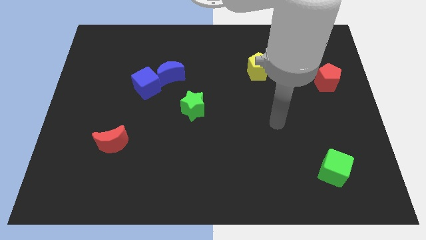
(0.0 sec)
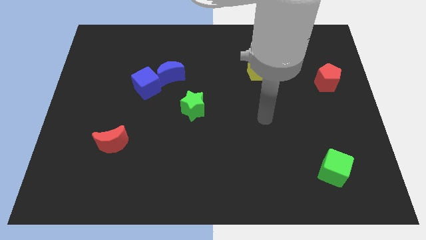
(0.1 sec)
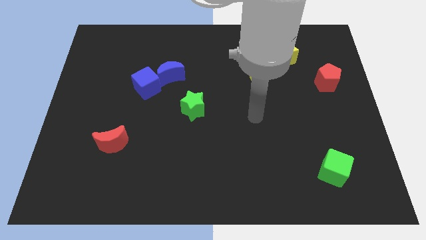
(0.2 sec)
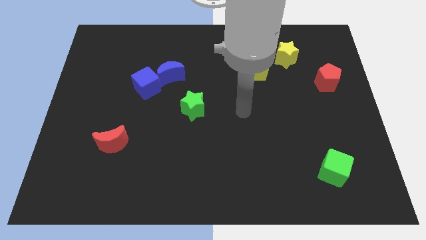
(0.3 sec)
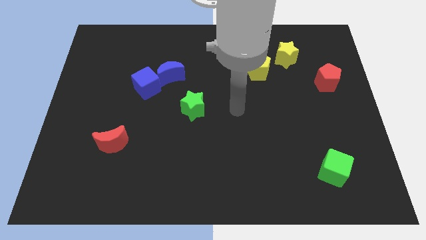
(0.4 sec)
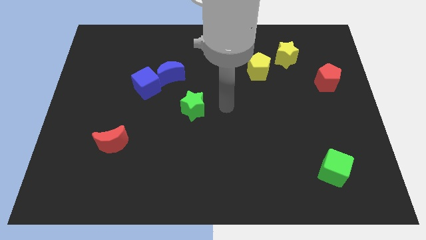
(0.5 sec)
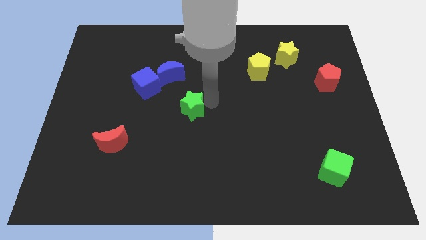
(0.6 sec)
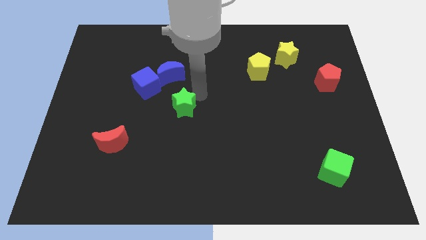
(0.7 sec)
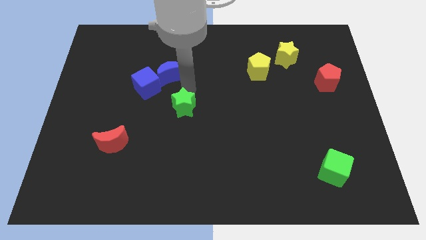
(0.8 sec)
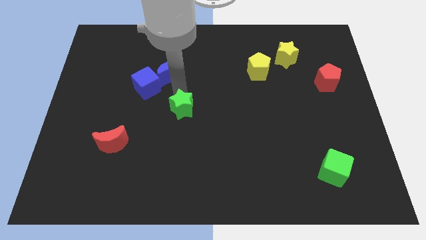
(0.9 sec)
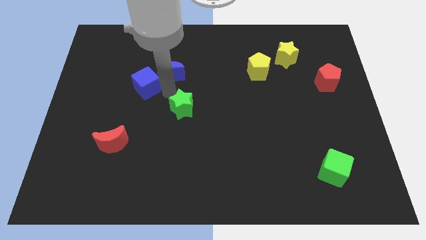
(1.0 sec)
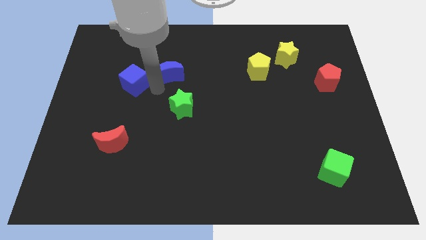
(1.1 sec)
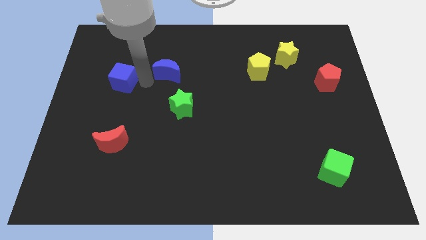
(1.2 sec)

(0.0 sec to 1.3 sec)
pull the blue moon apart from the blue cube

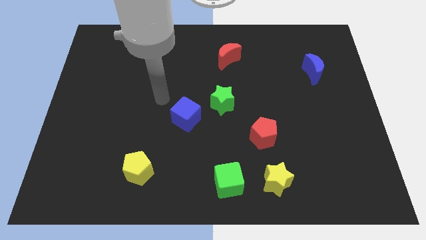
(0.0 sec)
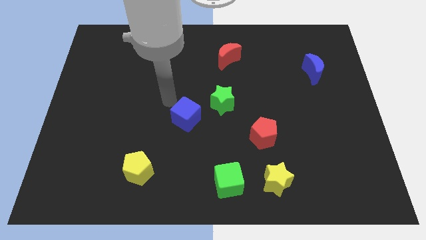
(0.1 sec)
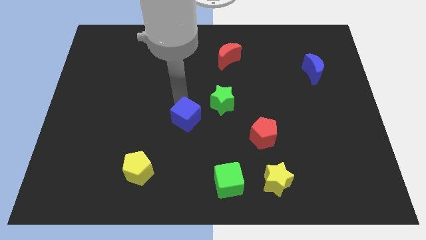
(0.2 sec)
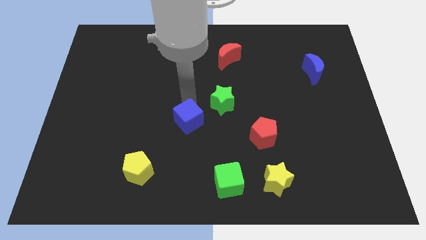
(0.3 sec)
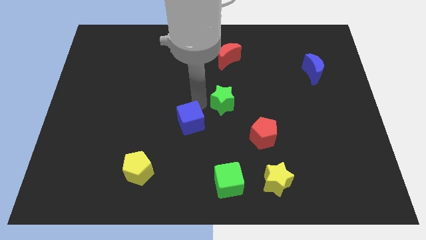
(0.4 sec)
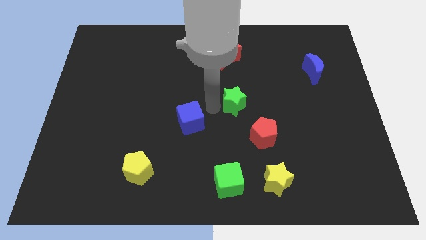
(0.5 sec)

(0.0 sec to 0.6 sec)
move the blue cube away from the green star

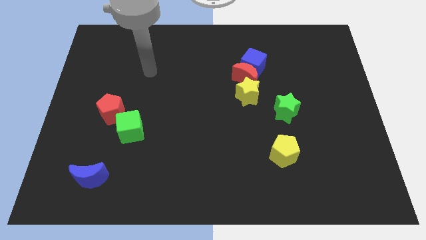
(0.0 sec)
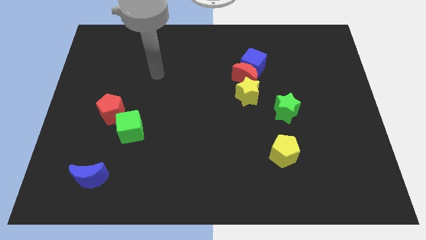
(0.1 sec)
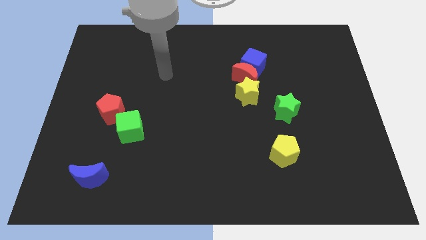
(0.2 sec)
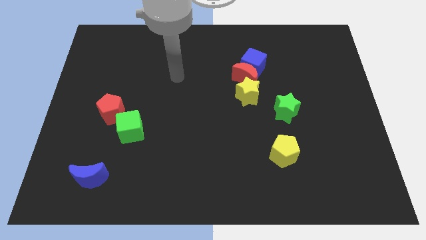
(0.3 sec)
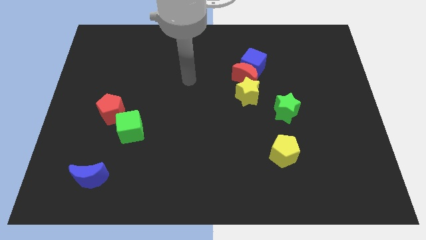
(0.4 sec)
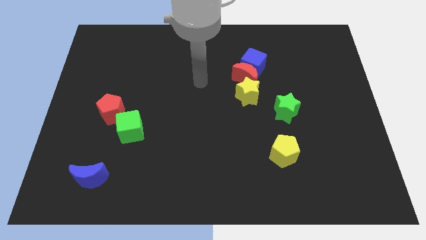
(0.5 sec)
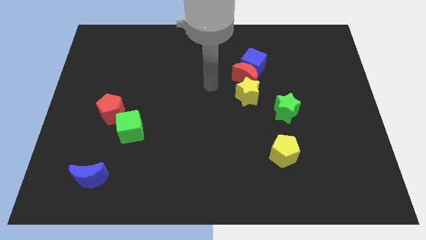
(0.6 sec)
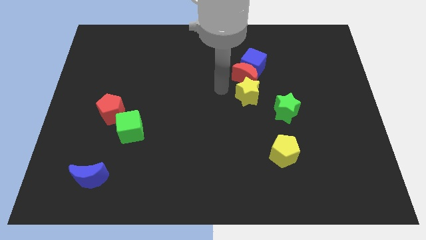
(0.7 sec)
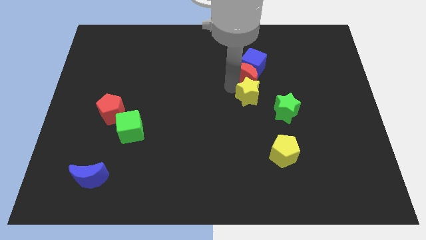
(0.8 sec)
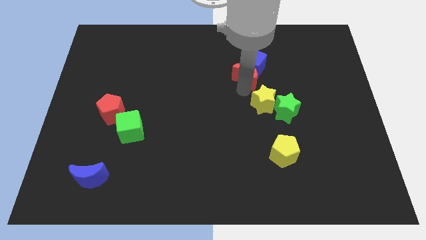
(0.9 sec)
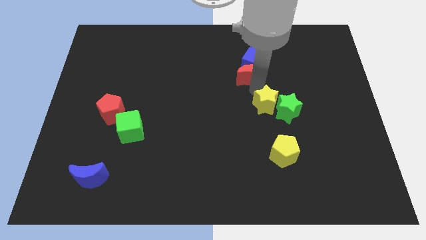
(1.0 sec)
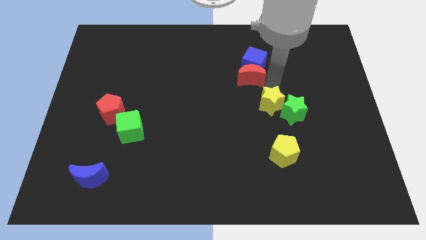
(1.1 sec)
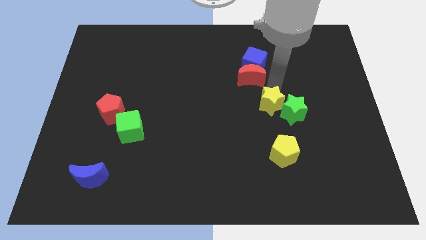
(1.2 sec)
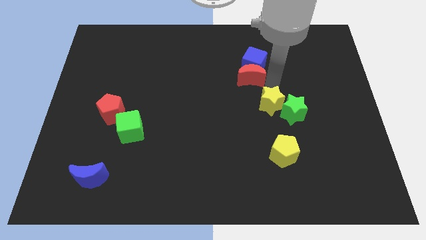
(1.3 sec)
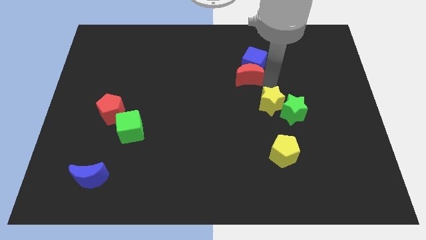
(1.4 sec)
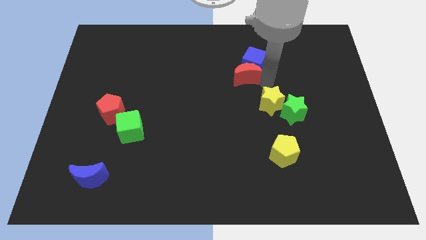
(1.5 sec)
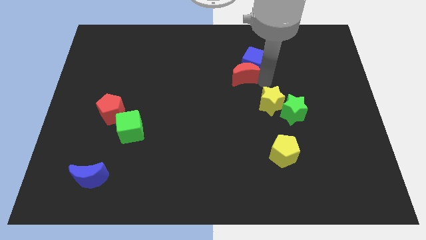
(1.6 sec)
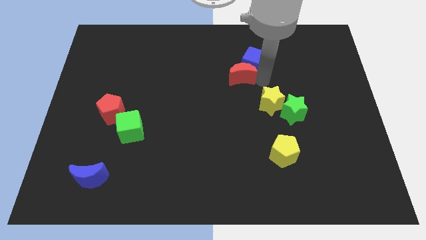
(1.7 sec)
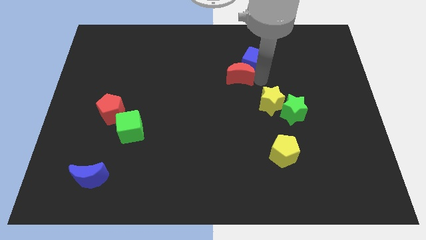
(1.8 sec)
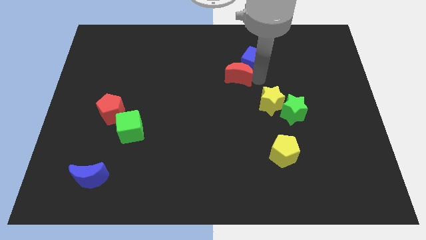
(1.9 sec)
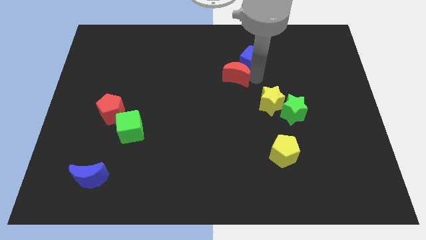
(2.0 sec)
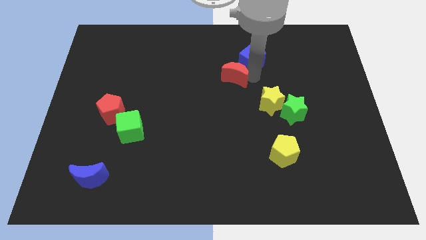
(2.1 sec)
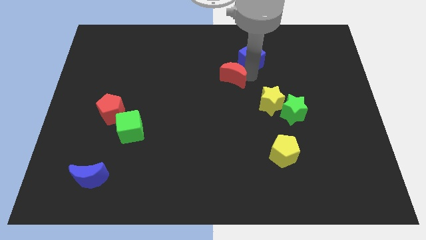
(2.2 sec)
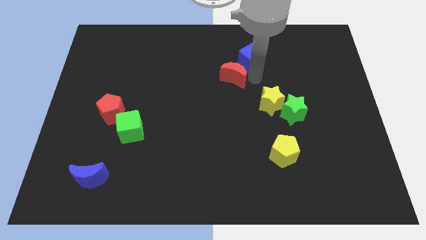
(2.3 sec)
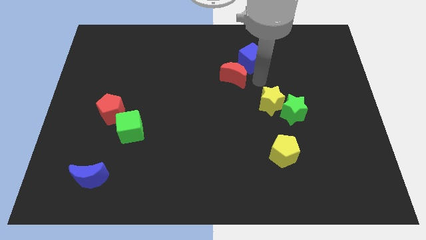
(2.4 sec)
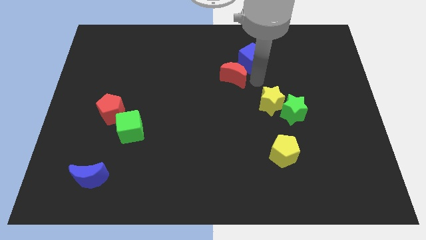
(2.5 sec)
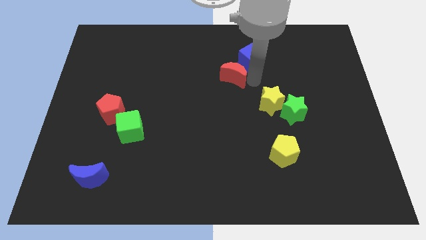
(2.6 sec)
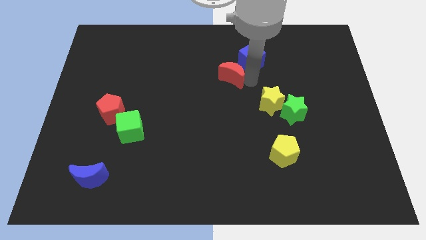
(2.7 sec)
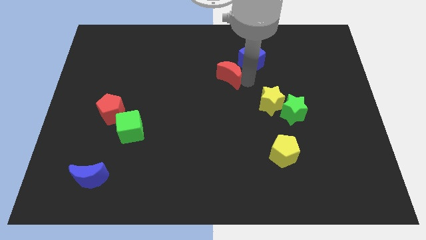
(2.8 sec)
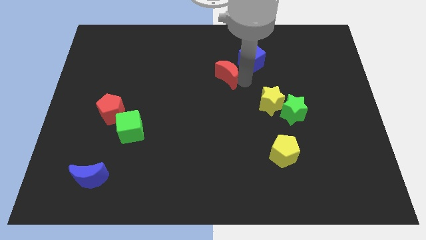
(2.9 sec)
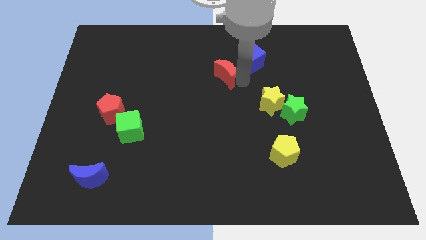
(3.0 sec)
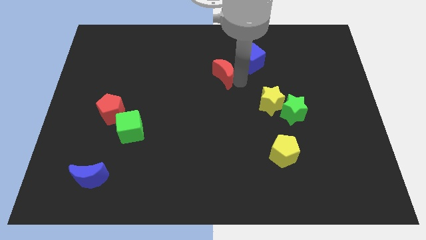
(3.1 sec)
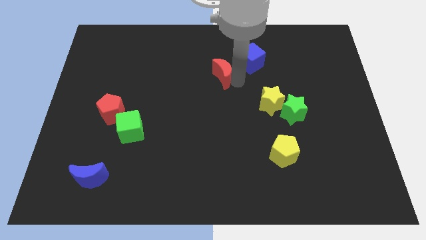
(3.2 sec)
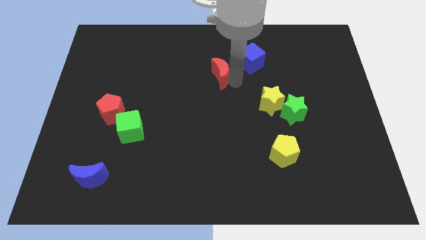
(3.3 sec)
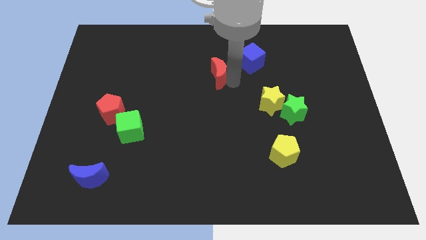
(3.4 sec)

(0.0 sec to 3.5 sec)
pull the red moon apart from the blue cube and yellow star

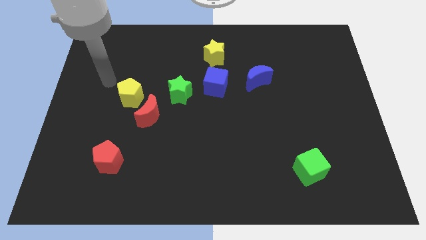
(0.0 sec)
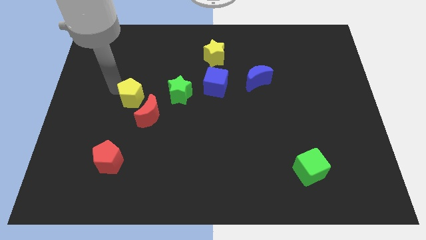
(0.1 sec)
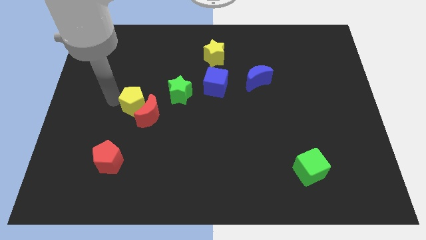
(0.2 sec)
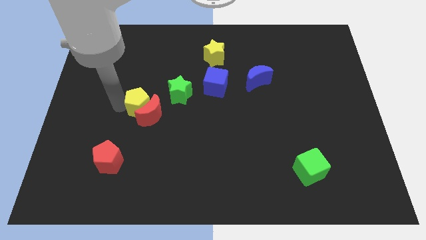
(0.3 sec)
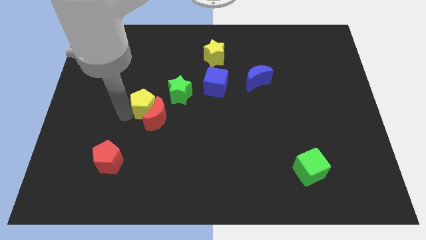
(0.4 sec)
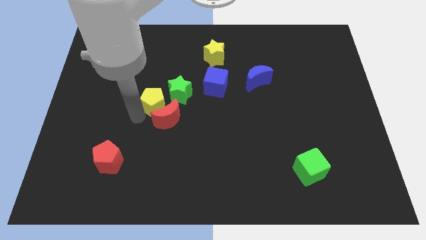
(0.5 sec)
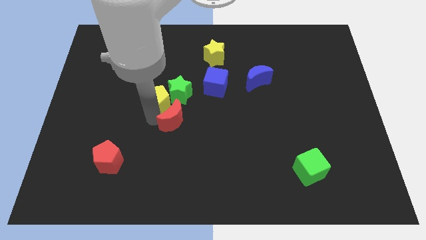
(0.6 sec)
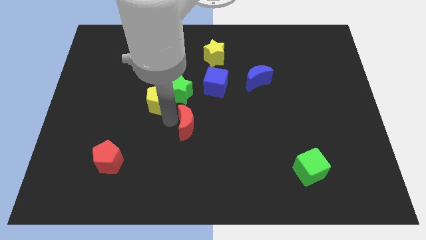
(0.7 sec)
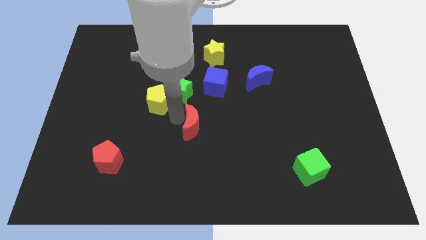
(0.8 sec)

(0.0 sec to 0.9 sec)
pull the yellow pentagon apart from the red moon

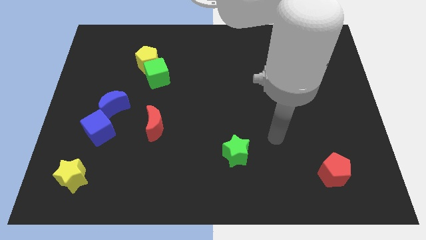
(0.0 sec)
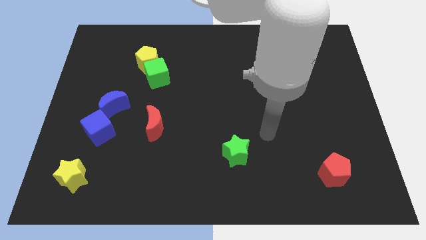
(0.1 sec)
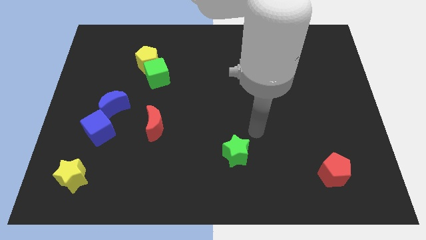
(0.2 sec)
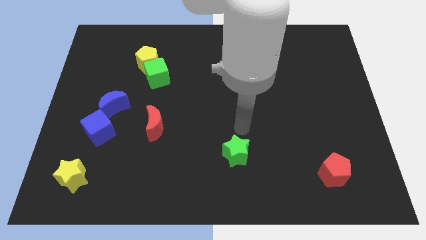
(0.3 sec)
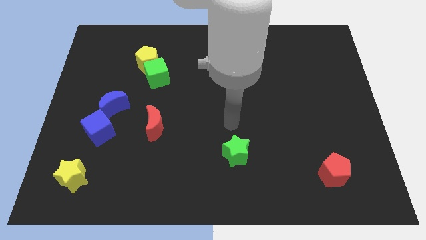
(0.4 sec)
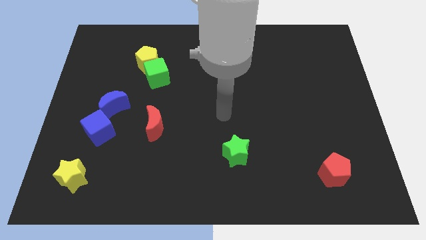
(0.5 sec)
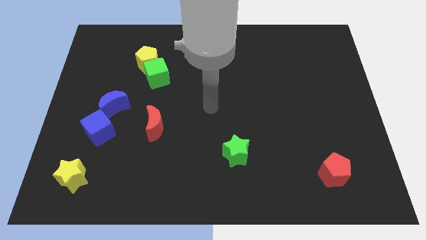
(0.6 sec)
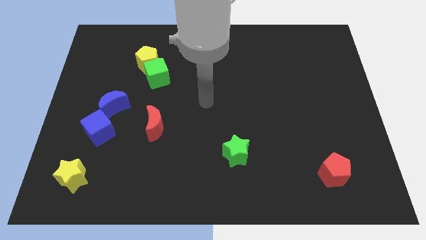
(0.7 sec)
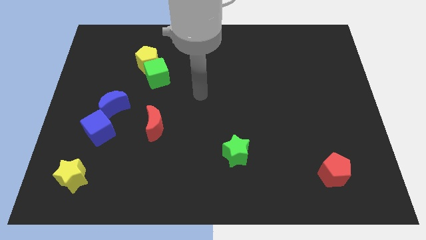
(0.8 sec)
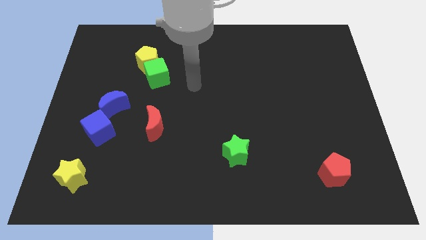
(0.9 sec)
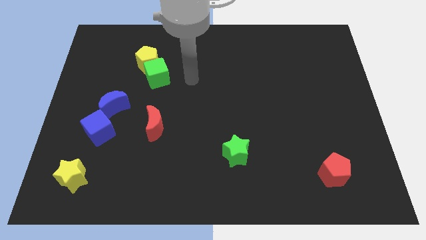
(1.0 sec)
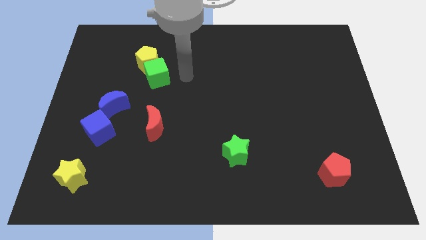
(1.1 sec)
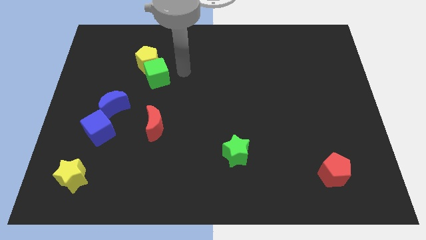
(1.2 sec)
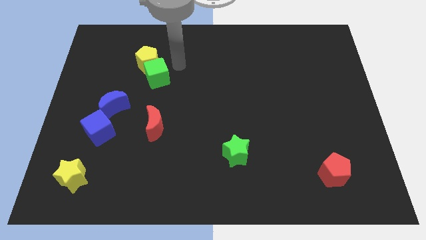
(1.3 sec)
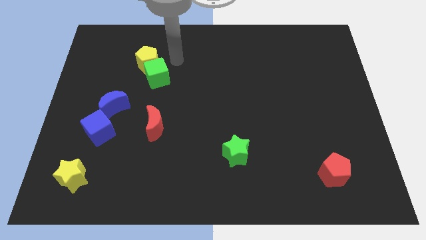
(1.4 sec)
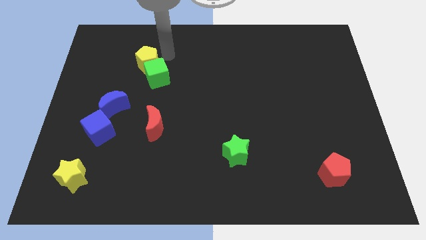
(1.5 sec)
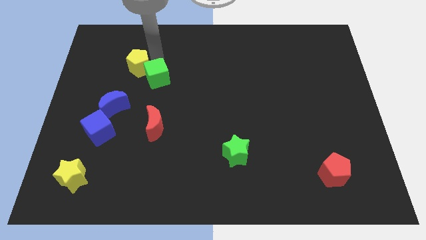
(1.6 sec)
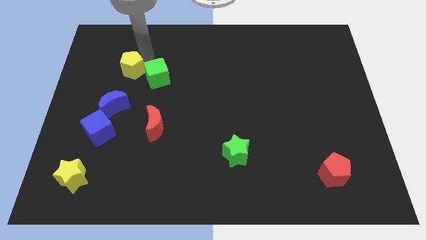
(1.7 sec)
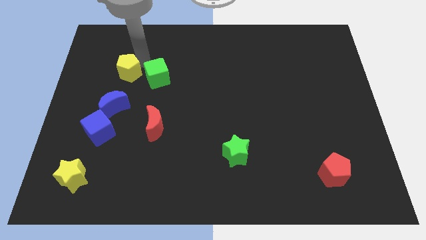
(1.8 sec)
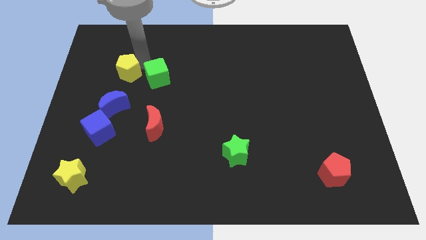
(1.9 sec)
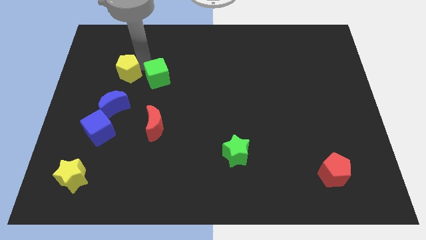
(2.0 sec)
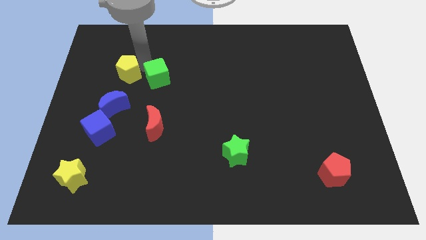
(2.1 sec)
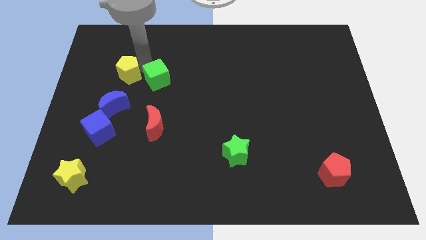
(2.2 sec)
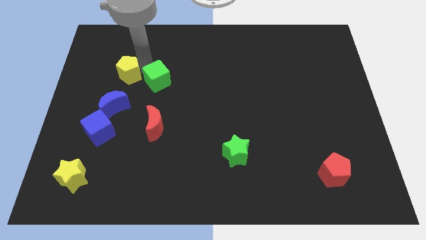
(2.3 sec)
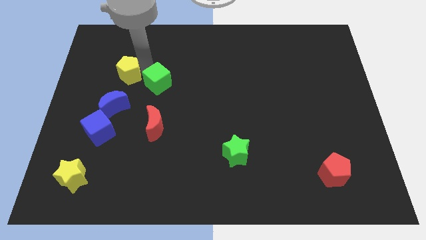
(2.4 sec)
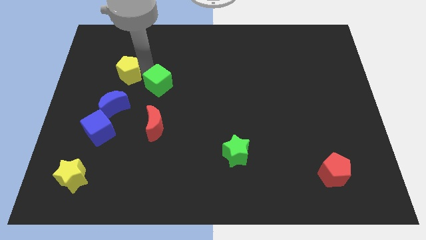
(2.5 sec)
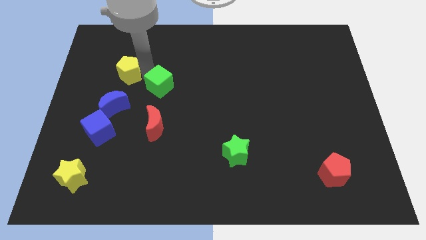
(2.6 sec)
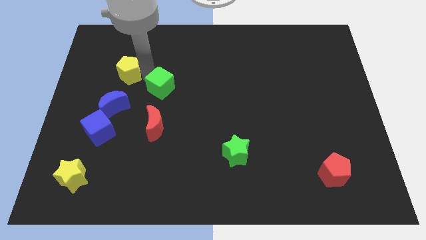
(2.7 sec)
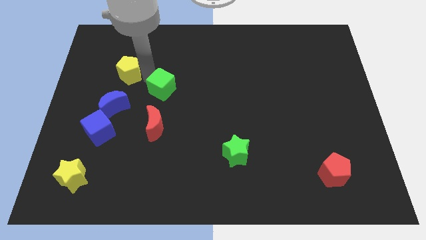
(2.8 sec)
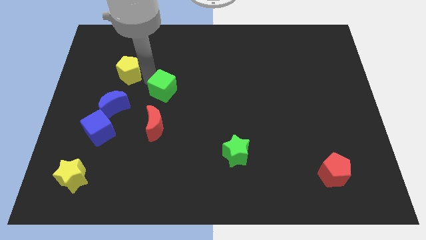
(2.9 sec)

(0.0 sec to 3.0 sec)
move the green cube away from the yellow pentagon

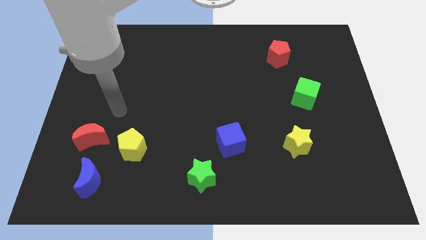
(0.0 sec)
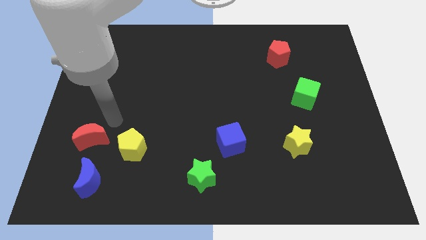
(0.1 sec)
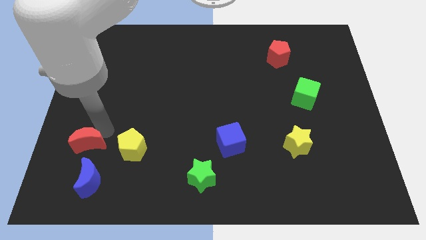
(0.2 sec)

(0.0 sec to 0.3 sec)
separate the yellow pentagon from the red moon
